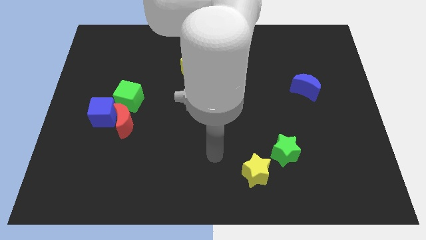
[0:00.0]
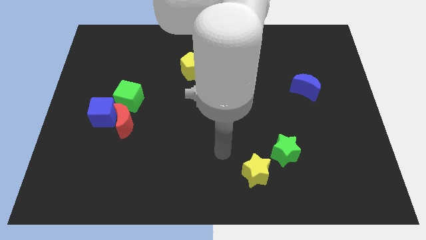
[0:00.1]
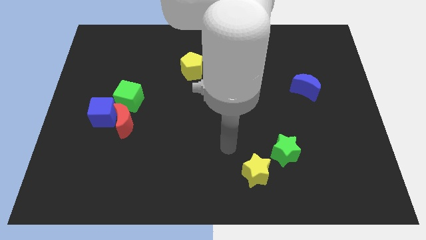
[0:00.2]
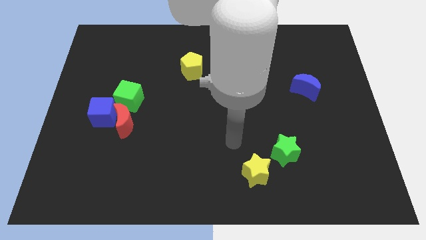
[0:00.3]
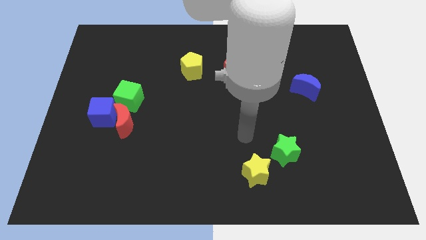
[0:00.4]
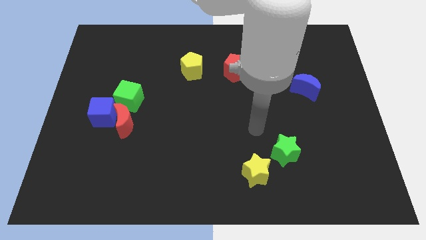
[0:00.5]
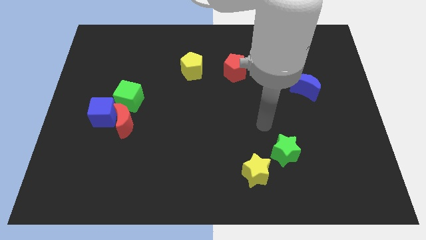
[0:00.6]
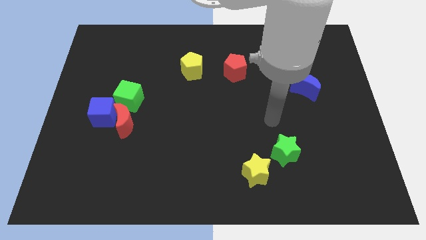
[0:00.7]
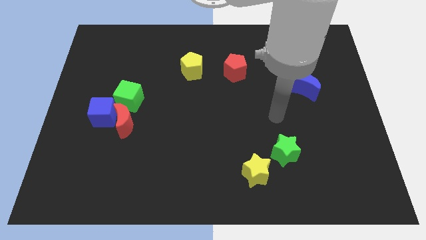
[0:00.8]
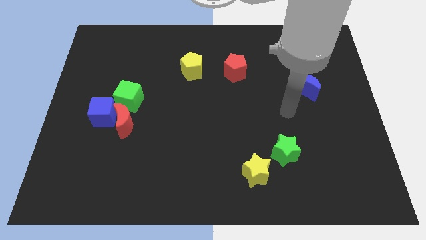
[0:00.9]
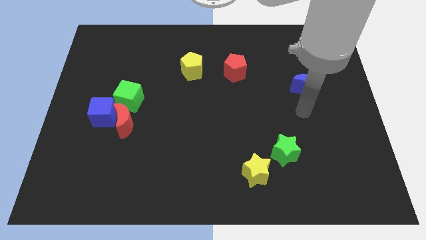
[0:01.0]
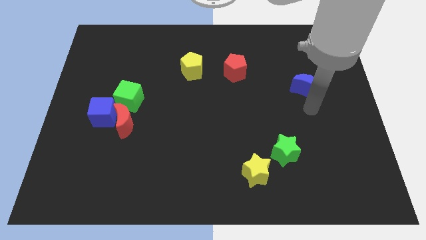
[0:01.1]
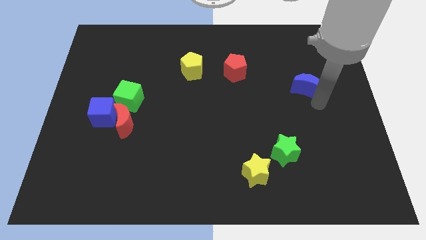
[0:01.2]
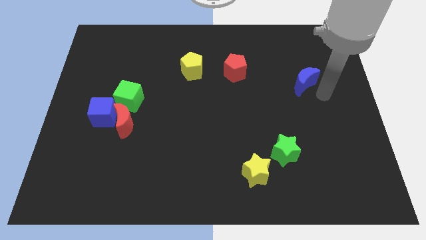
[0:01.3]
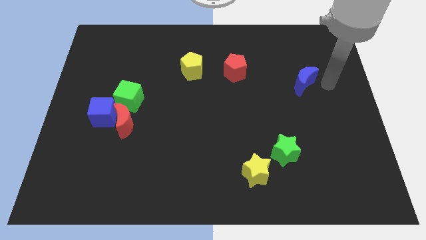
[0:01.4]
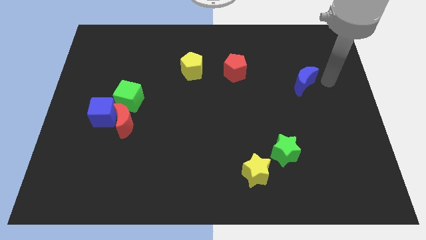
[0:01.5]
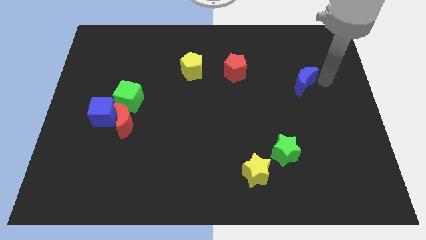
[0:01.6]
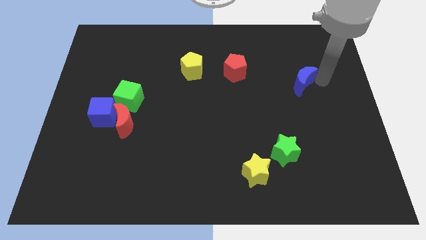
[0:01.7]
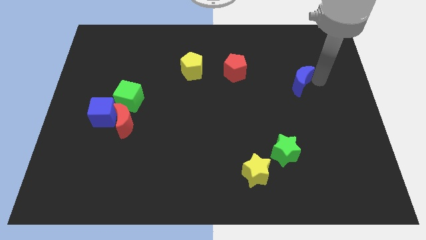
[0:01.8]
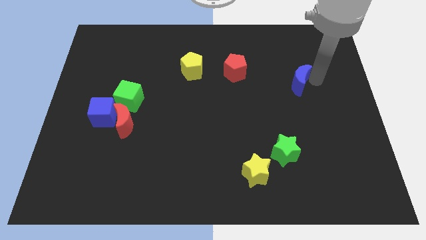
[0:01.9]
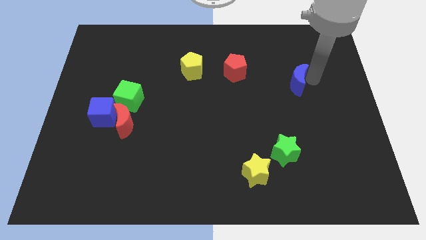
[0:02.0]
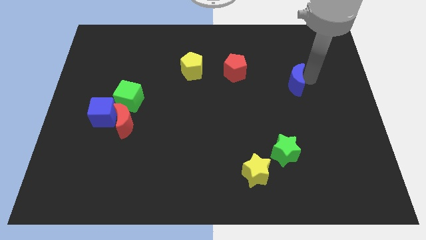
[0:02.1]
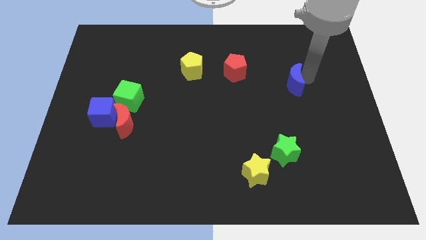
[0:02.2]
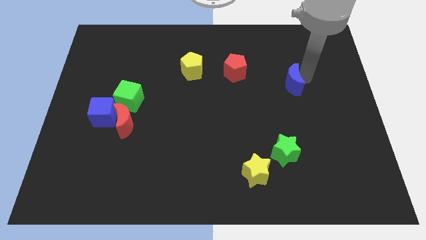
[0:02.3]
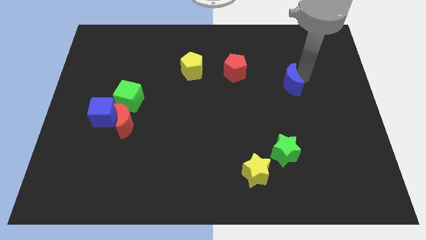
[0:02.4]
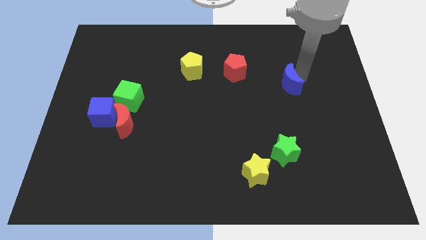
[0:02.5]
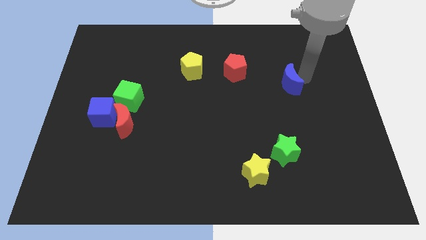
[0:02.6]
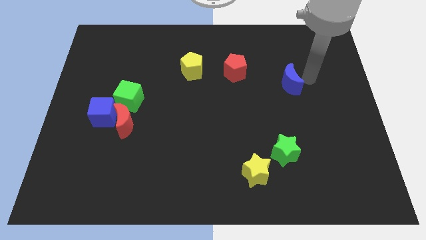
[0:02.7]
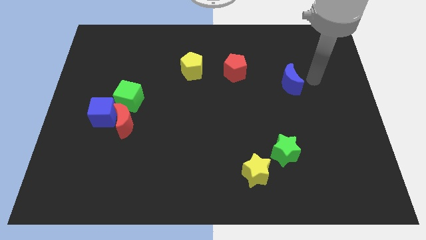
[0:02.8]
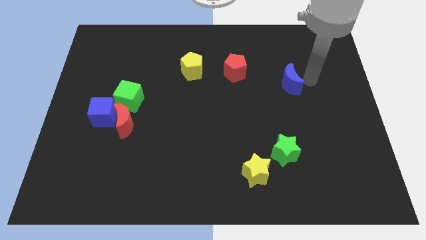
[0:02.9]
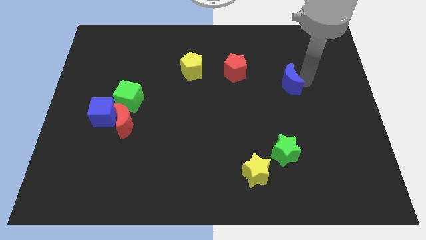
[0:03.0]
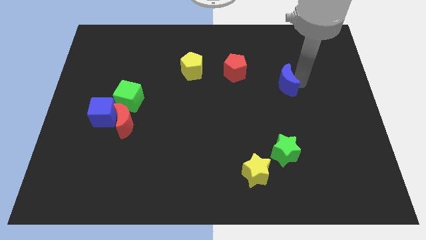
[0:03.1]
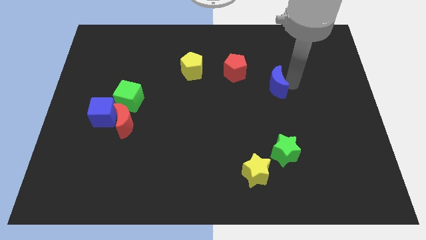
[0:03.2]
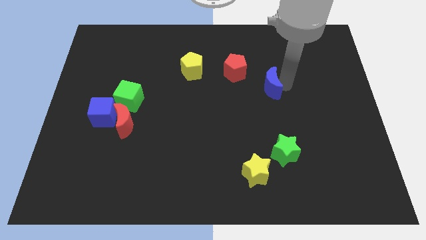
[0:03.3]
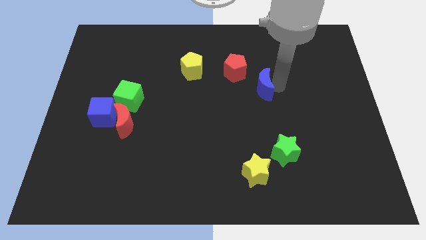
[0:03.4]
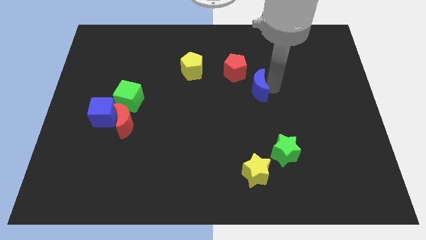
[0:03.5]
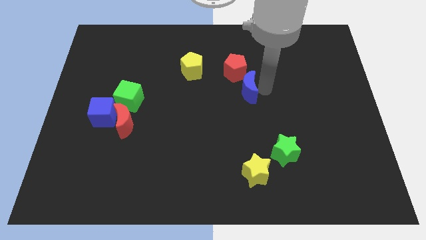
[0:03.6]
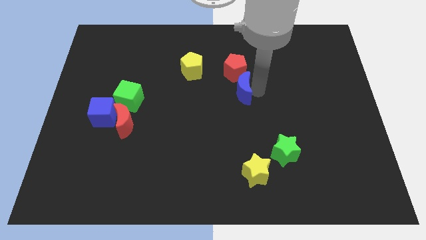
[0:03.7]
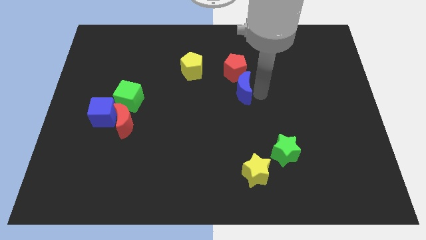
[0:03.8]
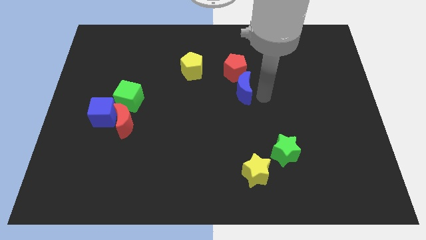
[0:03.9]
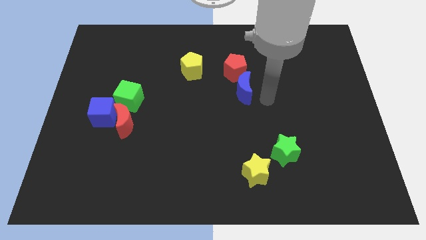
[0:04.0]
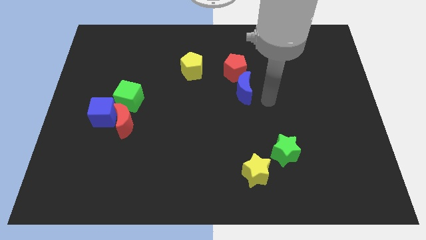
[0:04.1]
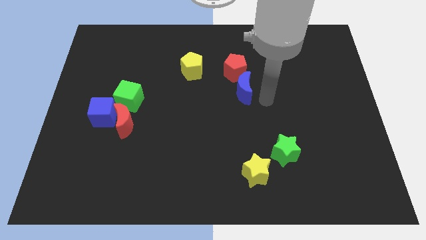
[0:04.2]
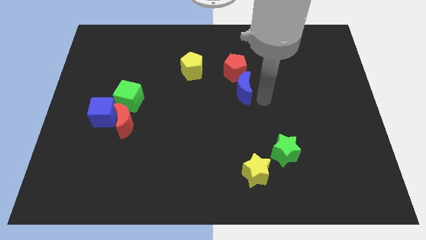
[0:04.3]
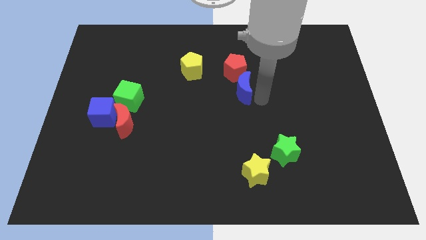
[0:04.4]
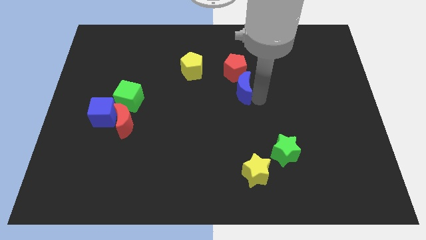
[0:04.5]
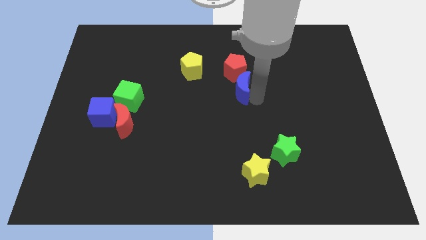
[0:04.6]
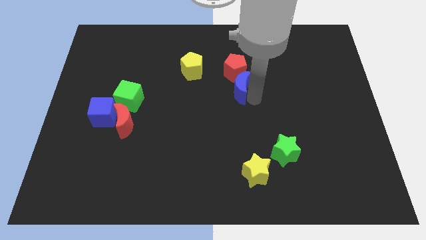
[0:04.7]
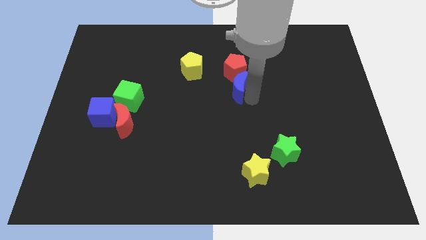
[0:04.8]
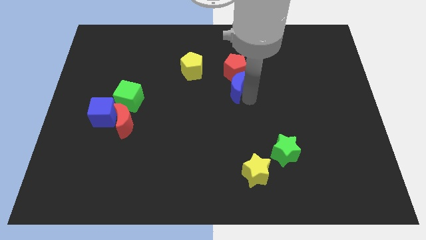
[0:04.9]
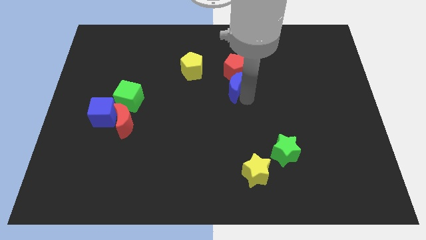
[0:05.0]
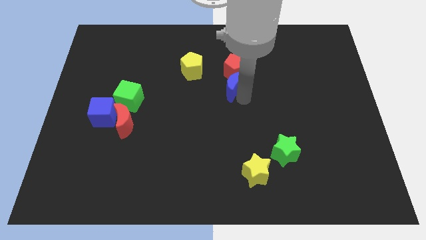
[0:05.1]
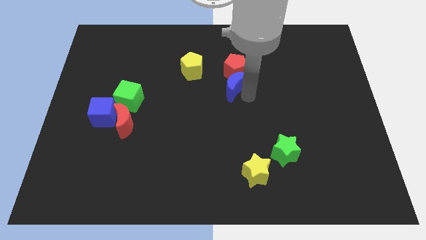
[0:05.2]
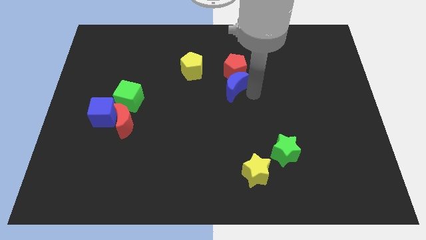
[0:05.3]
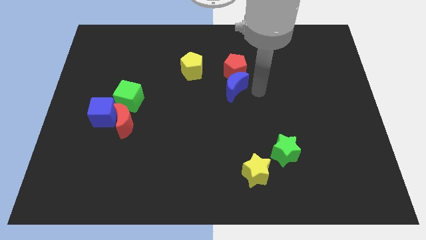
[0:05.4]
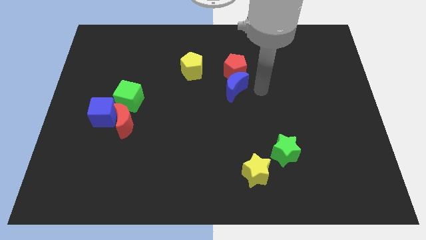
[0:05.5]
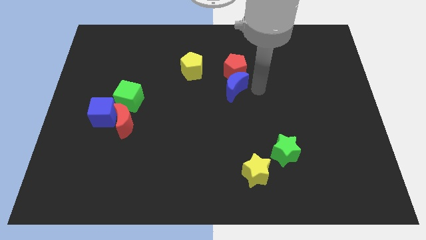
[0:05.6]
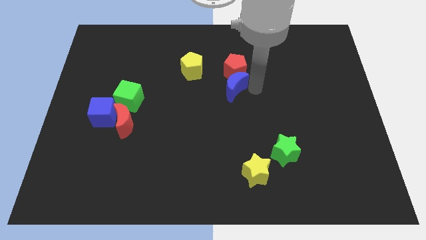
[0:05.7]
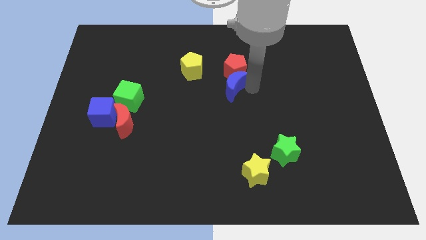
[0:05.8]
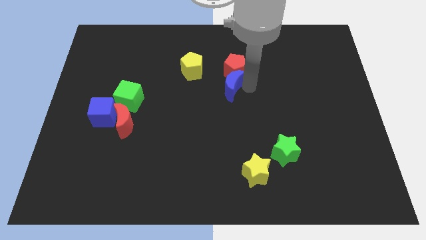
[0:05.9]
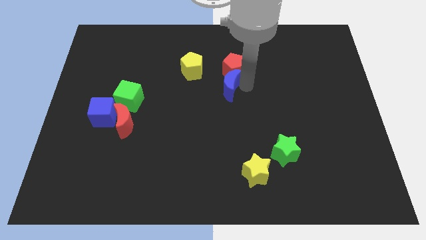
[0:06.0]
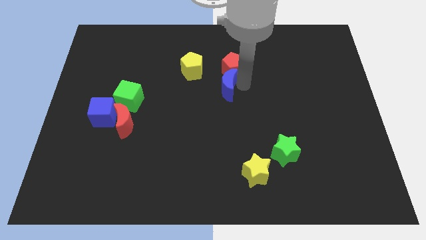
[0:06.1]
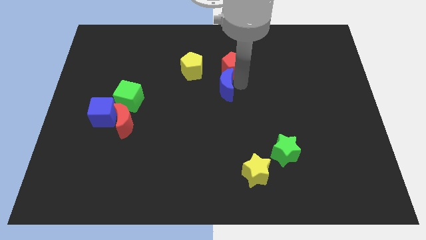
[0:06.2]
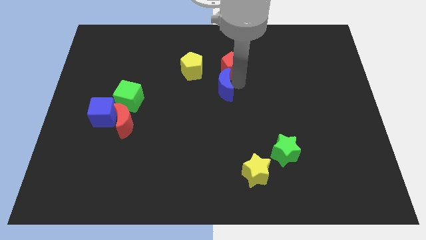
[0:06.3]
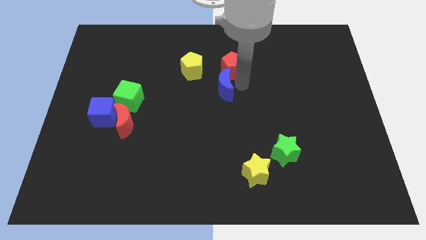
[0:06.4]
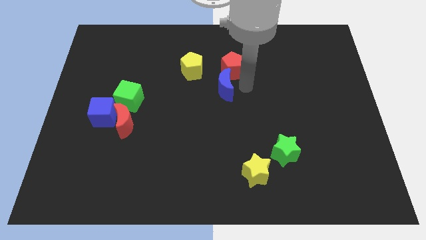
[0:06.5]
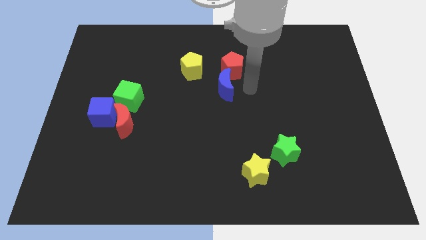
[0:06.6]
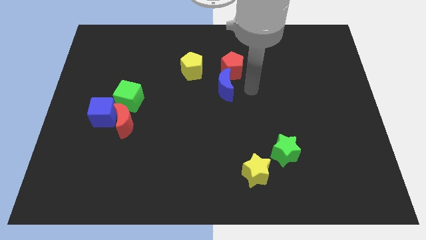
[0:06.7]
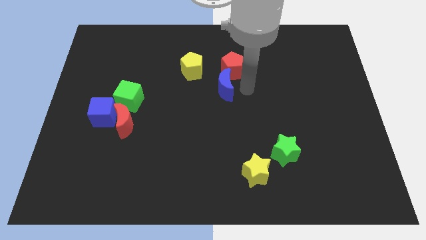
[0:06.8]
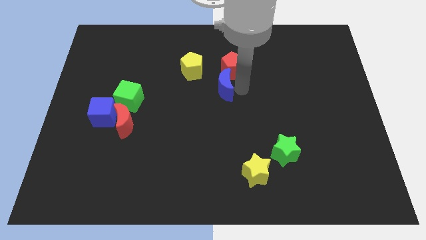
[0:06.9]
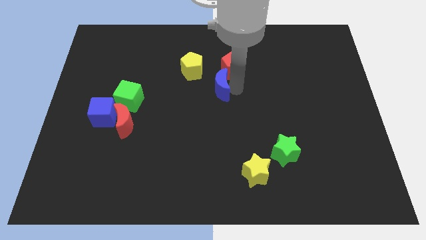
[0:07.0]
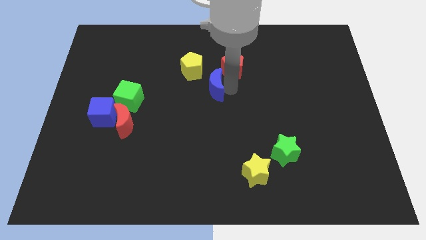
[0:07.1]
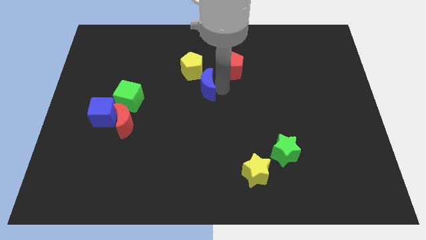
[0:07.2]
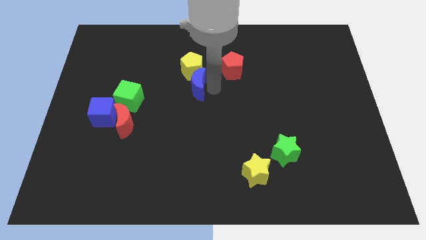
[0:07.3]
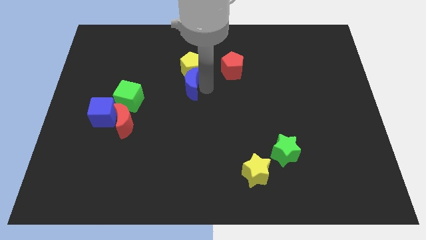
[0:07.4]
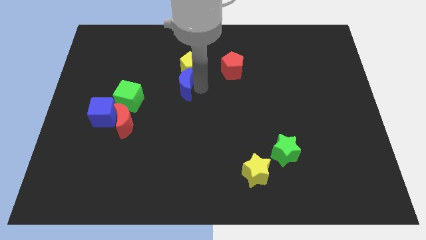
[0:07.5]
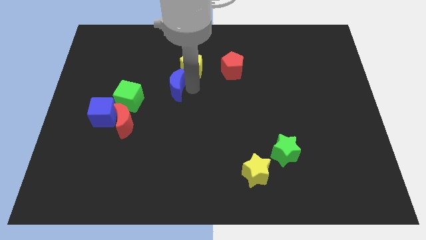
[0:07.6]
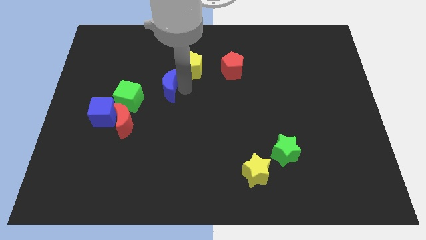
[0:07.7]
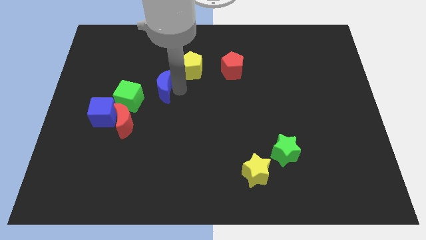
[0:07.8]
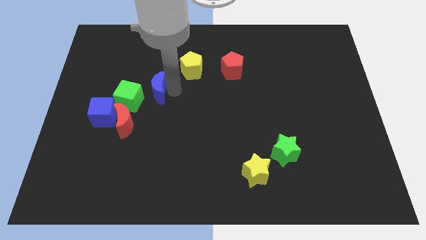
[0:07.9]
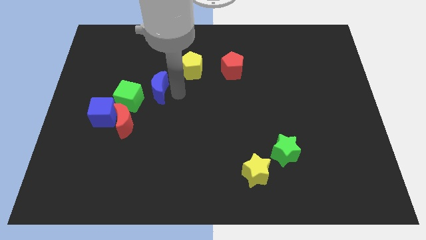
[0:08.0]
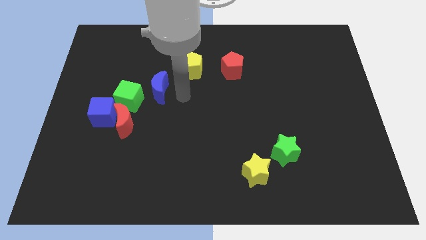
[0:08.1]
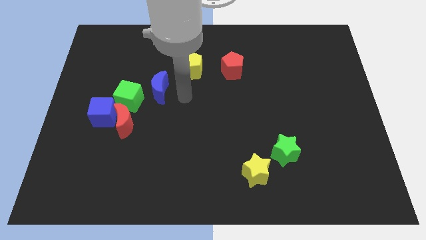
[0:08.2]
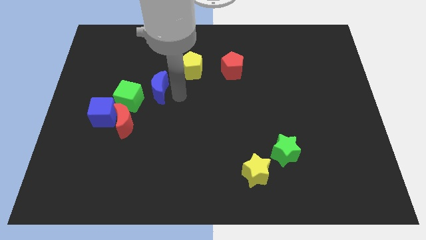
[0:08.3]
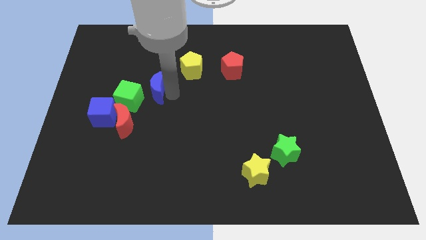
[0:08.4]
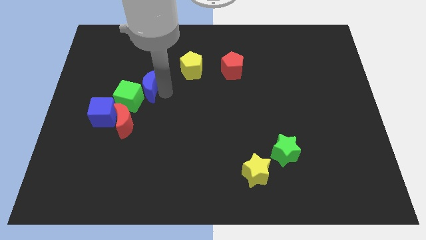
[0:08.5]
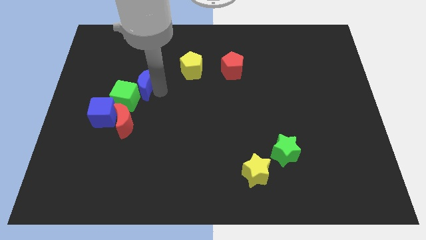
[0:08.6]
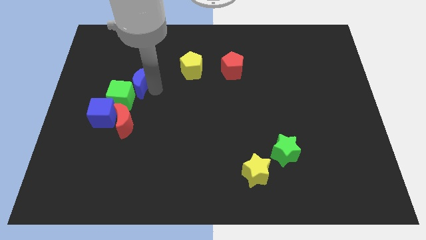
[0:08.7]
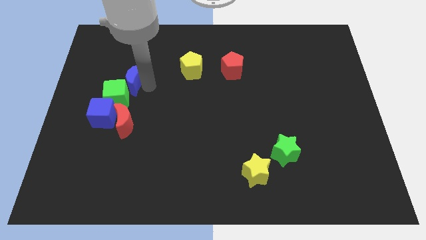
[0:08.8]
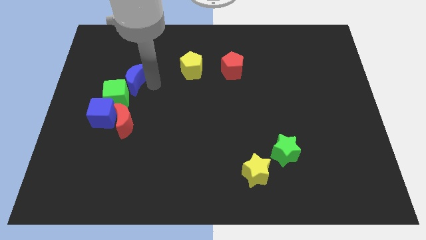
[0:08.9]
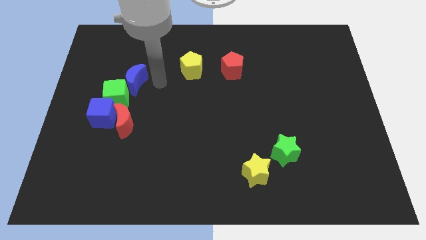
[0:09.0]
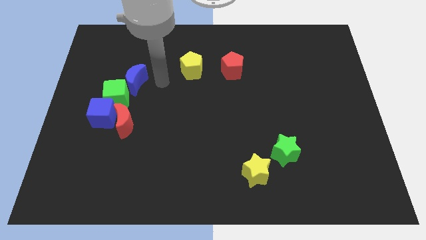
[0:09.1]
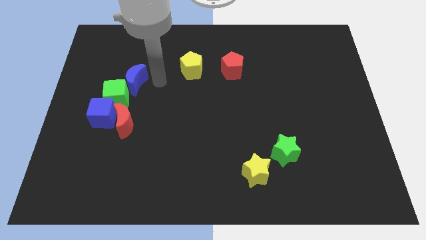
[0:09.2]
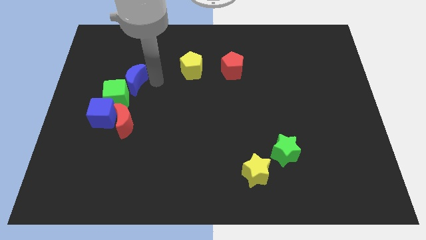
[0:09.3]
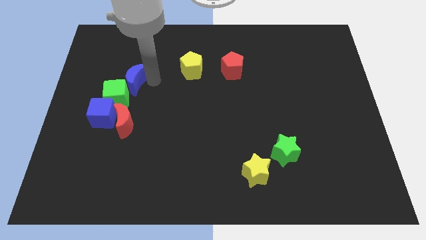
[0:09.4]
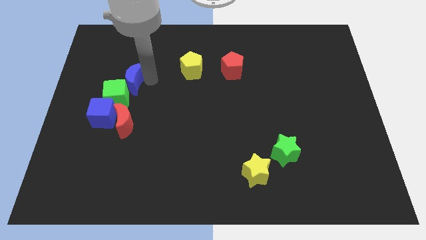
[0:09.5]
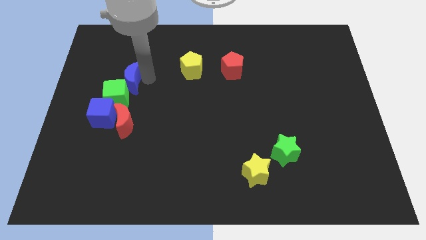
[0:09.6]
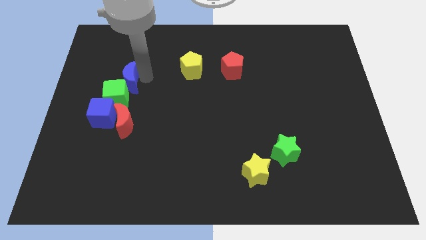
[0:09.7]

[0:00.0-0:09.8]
move the blue moon to the top side of the blue cube
